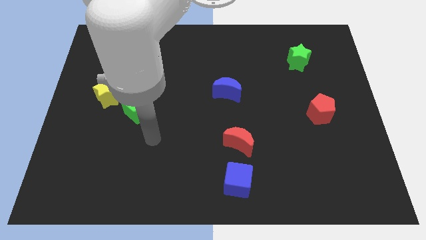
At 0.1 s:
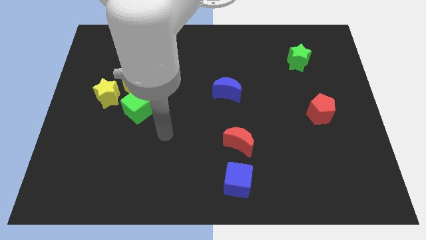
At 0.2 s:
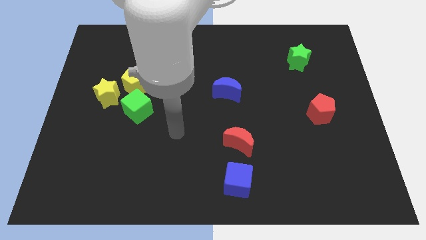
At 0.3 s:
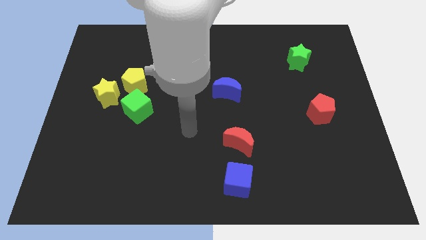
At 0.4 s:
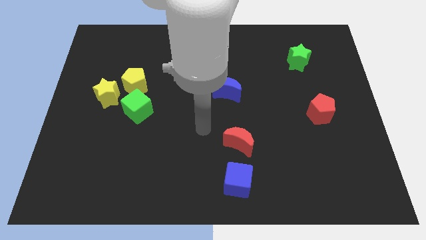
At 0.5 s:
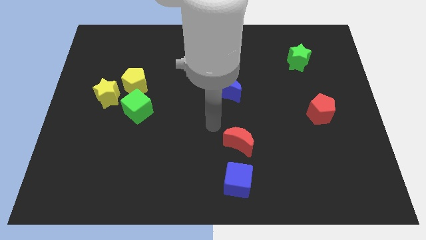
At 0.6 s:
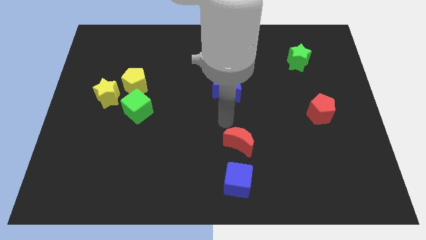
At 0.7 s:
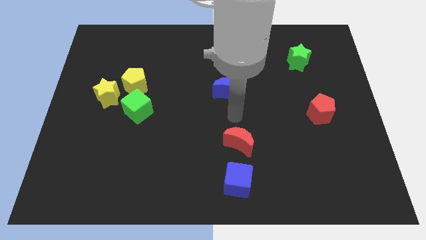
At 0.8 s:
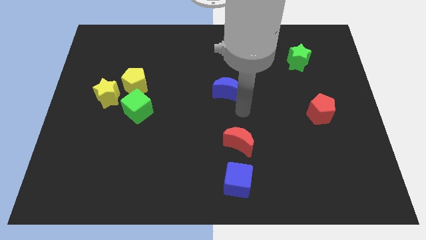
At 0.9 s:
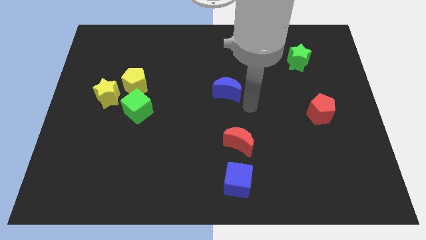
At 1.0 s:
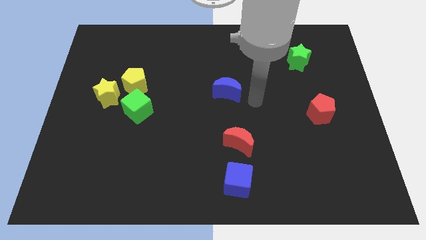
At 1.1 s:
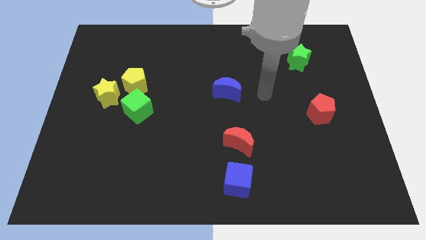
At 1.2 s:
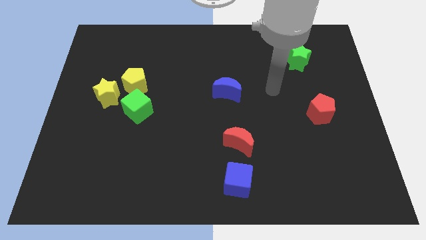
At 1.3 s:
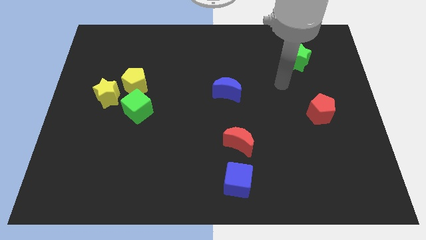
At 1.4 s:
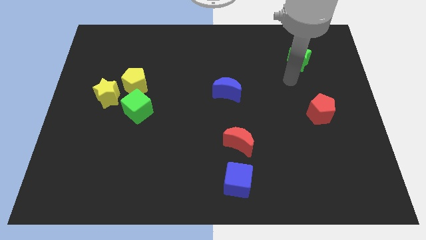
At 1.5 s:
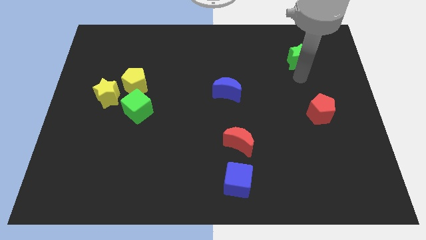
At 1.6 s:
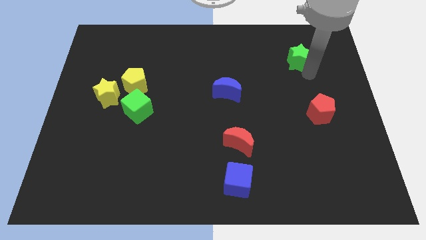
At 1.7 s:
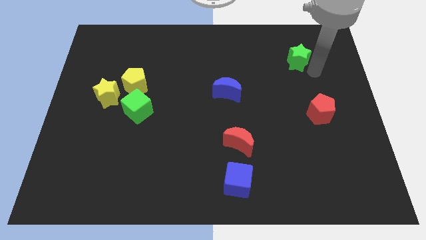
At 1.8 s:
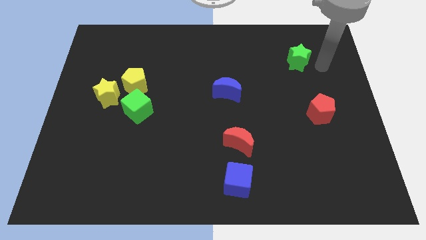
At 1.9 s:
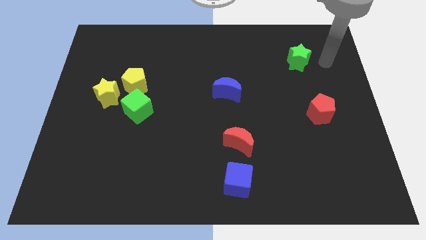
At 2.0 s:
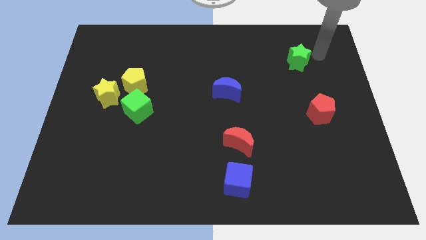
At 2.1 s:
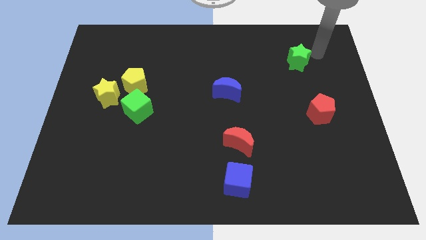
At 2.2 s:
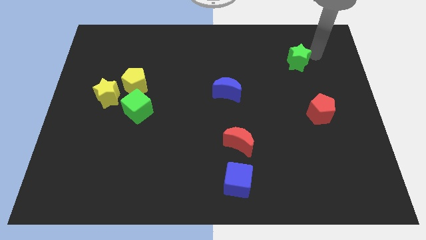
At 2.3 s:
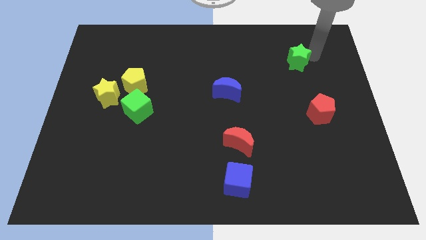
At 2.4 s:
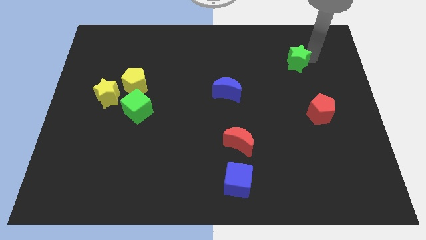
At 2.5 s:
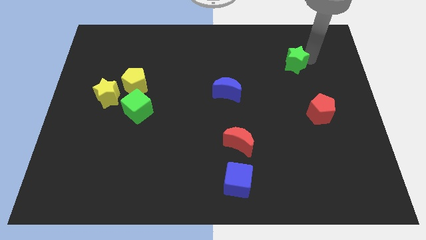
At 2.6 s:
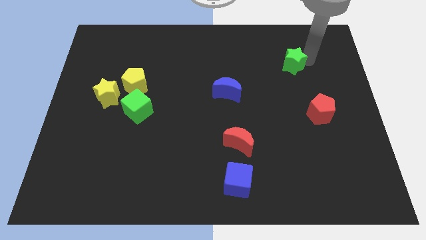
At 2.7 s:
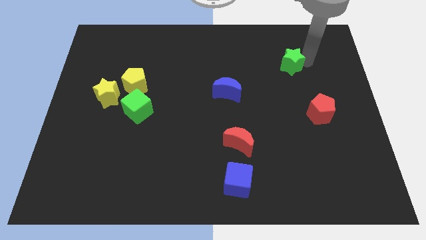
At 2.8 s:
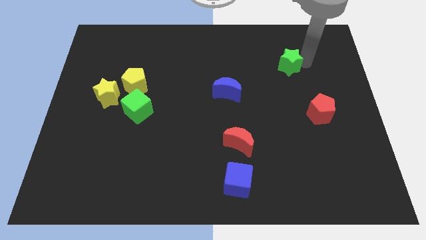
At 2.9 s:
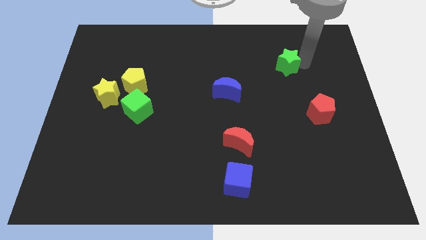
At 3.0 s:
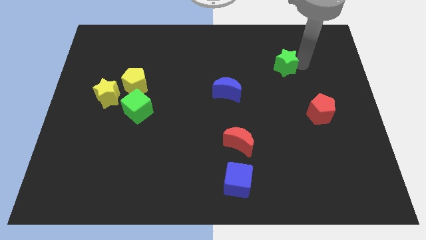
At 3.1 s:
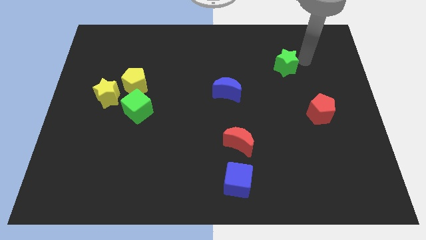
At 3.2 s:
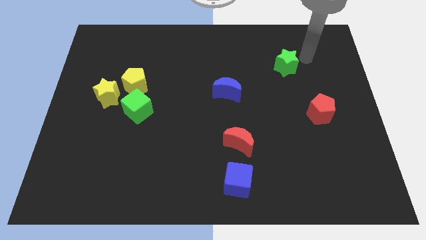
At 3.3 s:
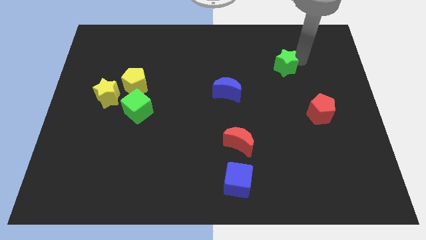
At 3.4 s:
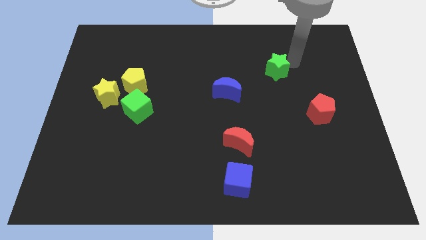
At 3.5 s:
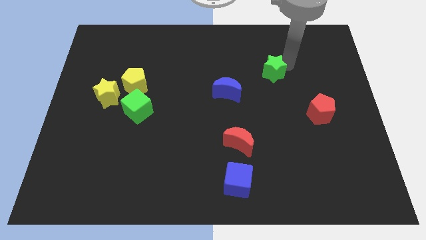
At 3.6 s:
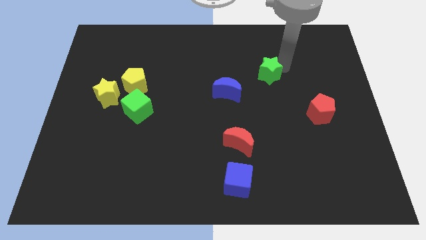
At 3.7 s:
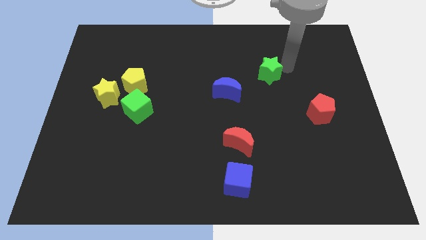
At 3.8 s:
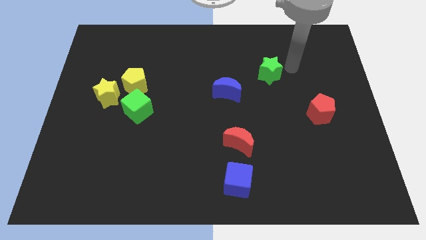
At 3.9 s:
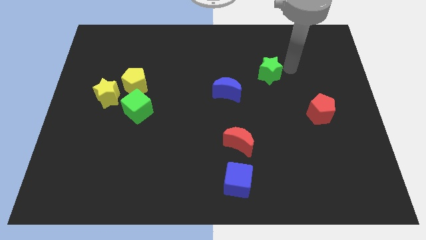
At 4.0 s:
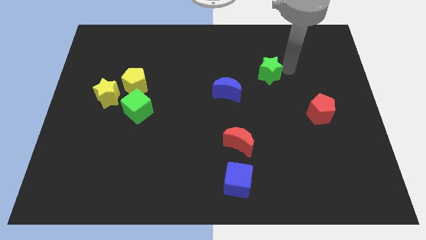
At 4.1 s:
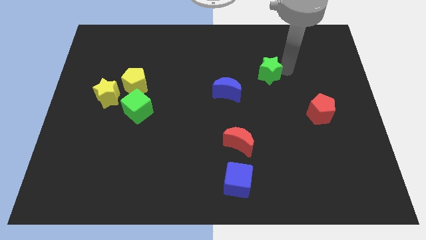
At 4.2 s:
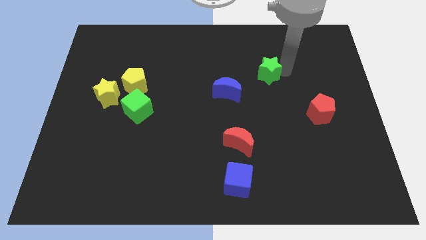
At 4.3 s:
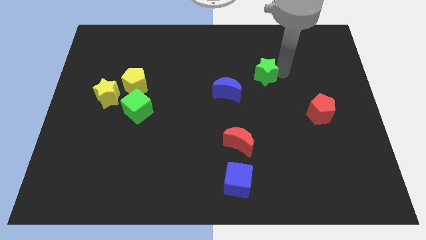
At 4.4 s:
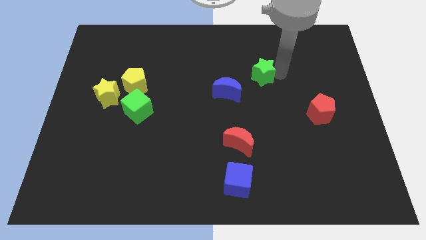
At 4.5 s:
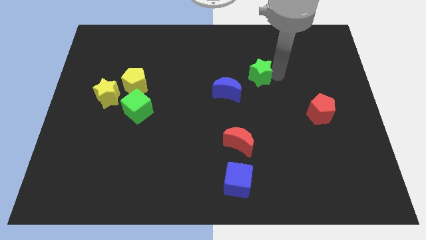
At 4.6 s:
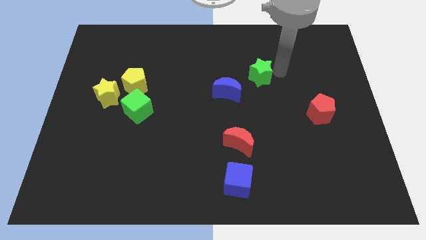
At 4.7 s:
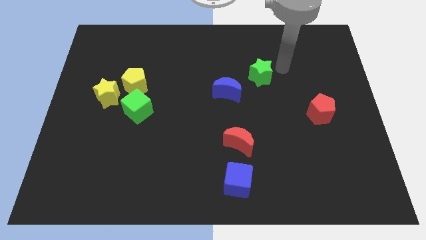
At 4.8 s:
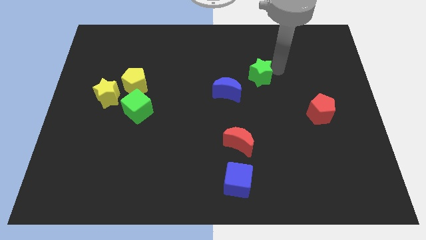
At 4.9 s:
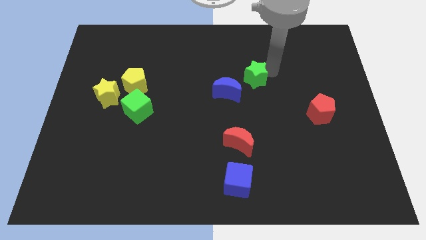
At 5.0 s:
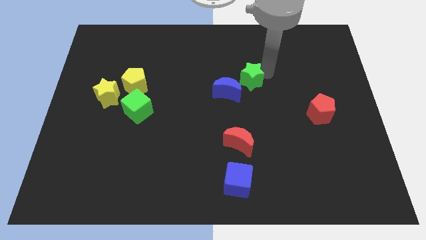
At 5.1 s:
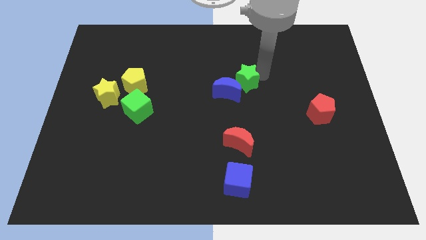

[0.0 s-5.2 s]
slide the green star to the blue moon

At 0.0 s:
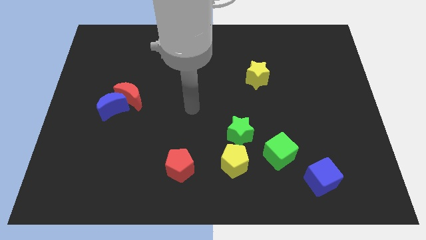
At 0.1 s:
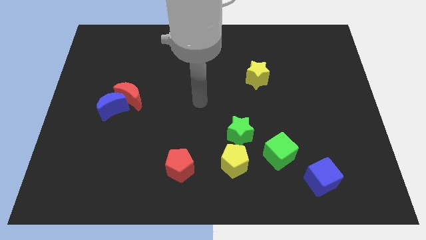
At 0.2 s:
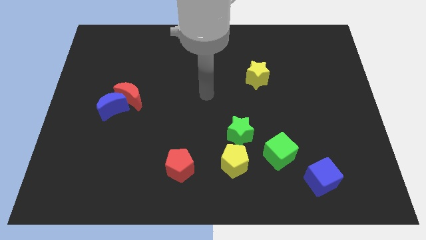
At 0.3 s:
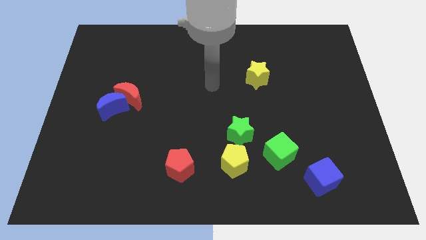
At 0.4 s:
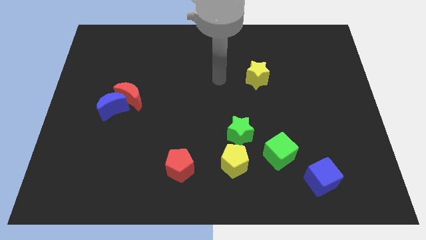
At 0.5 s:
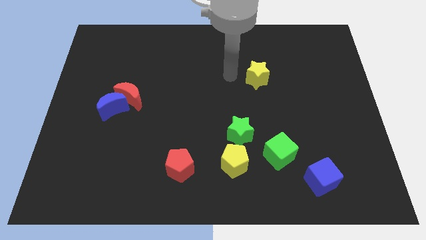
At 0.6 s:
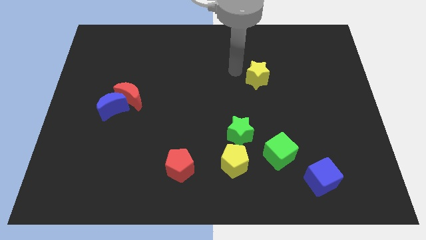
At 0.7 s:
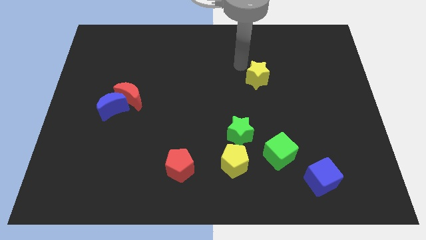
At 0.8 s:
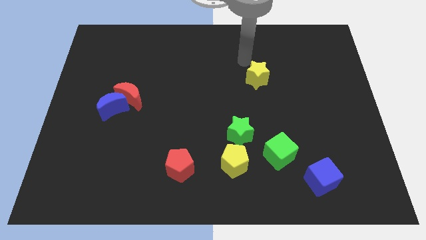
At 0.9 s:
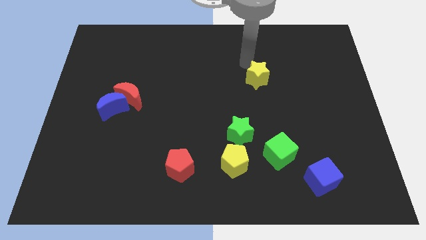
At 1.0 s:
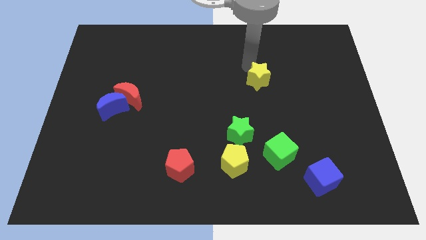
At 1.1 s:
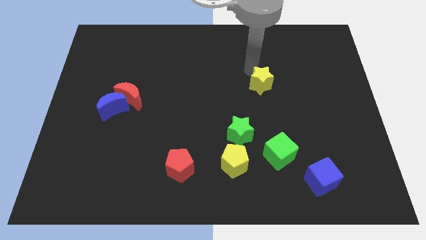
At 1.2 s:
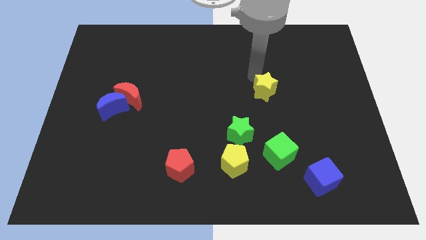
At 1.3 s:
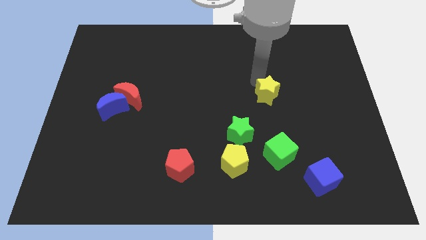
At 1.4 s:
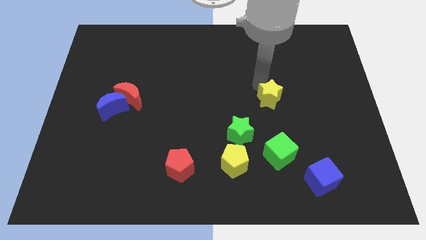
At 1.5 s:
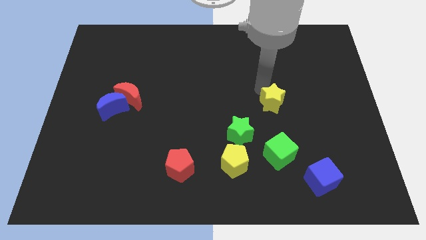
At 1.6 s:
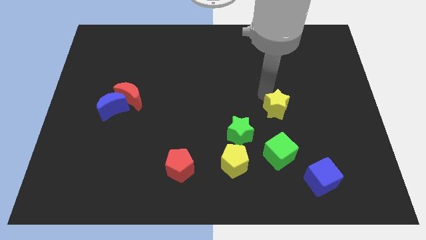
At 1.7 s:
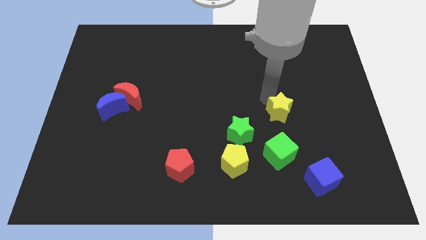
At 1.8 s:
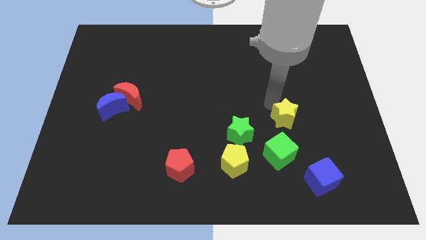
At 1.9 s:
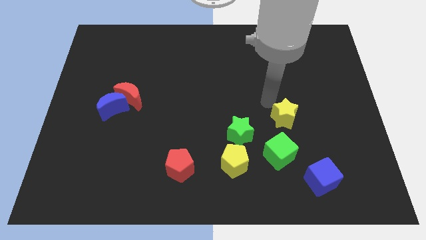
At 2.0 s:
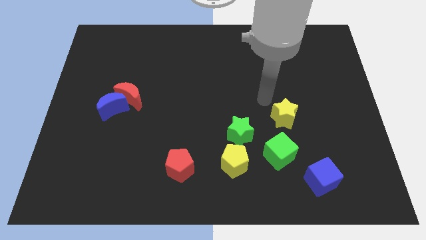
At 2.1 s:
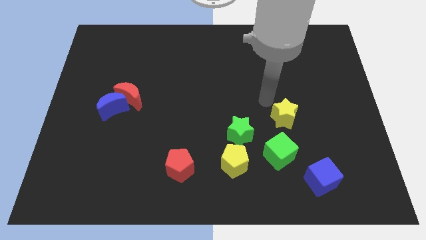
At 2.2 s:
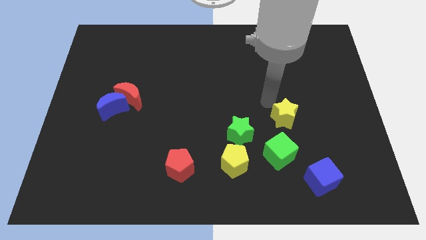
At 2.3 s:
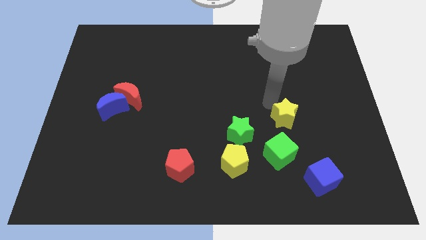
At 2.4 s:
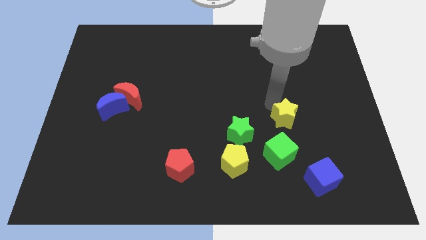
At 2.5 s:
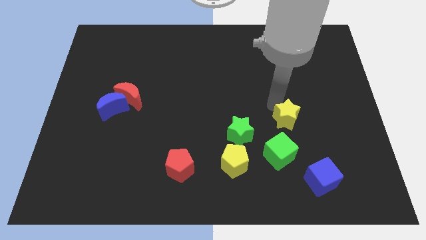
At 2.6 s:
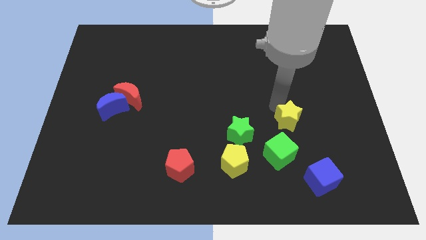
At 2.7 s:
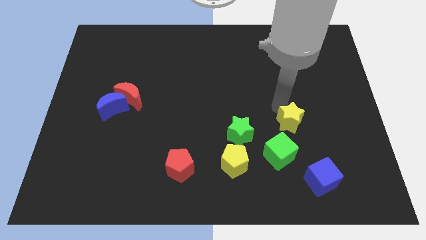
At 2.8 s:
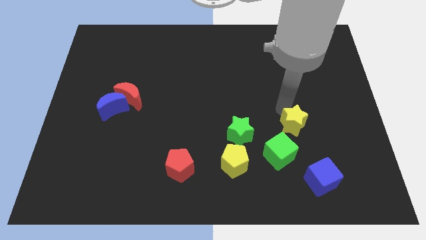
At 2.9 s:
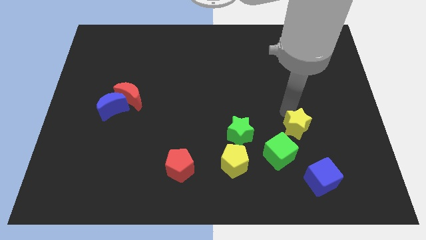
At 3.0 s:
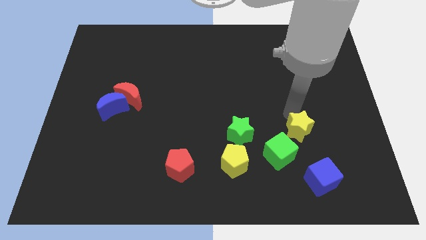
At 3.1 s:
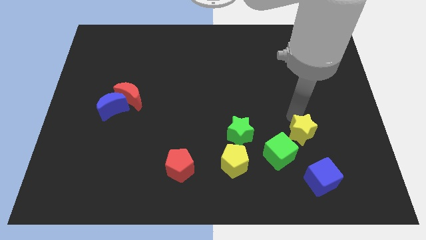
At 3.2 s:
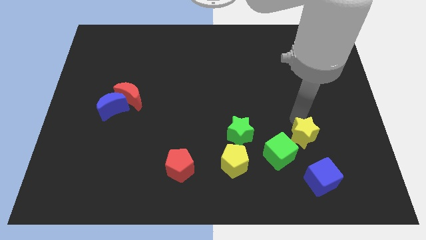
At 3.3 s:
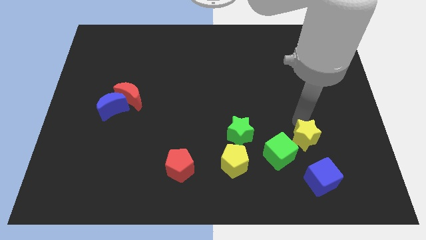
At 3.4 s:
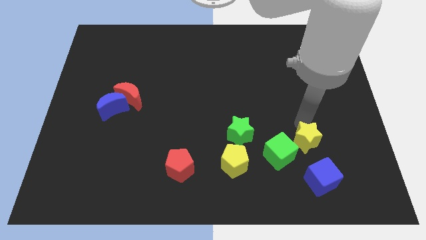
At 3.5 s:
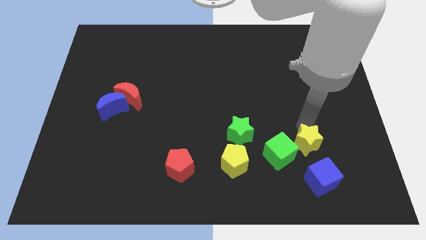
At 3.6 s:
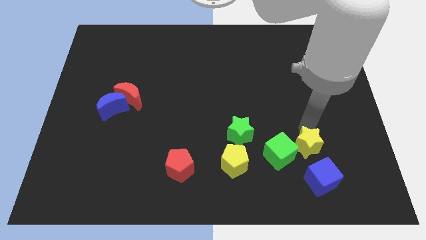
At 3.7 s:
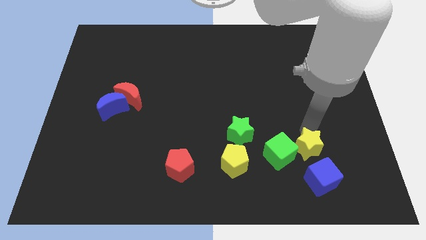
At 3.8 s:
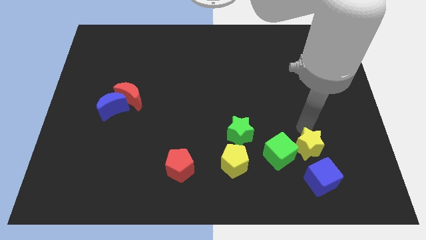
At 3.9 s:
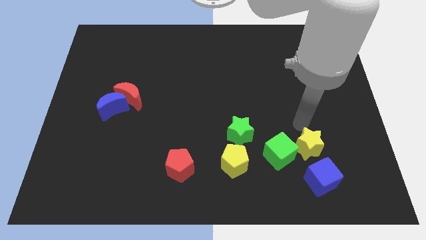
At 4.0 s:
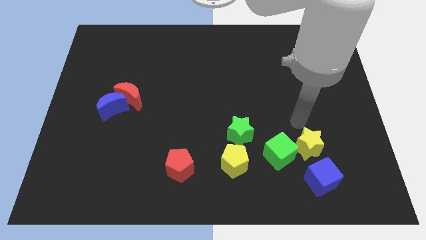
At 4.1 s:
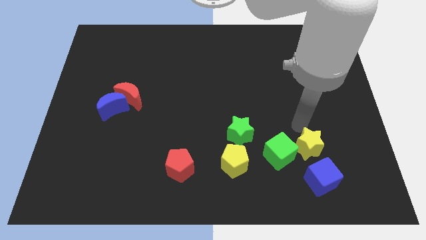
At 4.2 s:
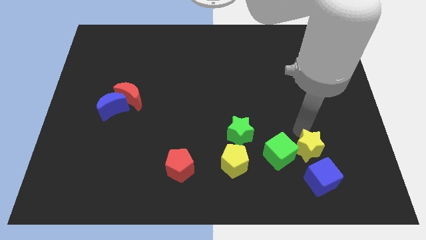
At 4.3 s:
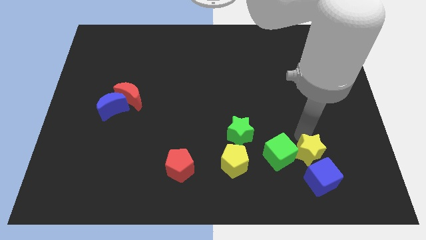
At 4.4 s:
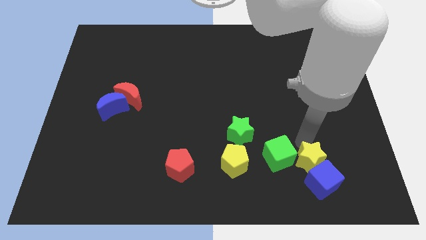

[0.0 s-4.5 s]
put the yellow star to the blue cube
